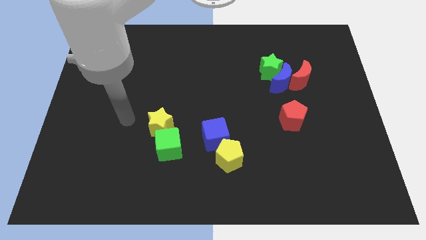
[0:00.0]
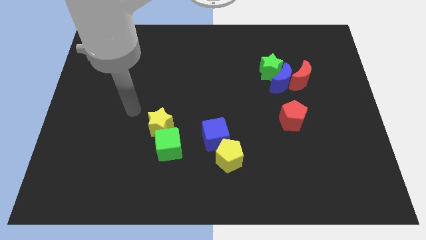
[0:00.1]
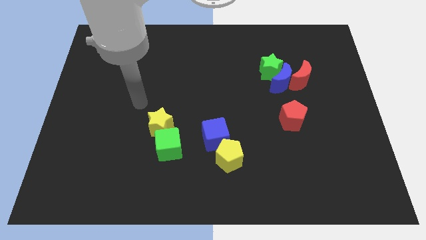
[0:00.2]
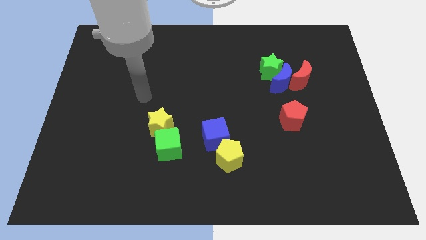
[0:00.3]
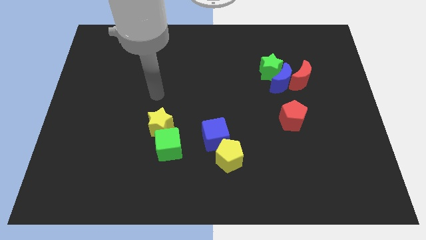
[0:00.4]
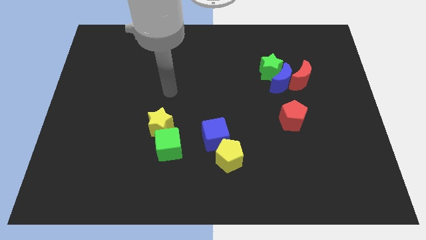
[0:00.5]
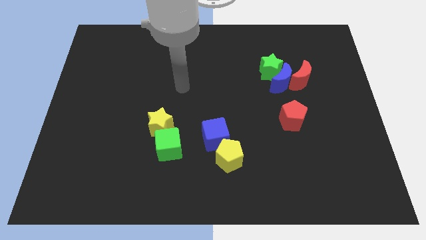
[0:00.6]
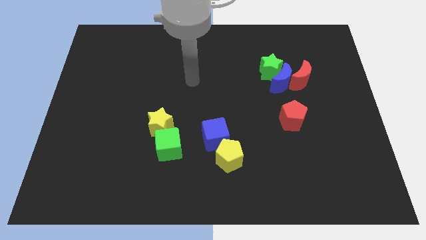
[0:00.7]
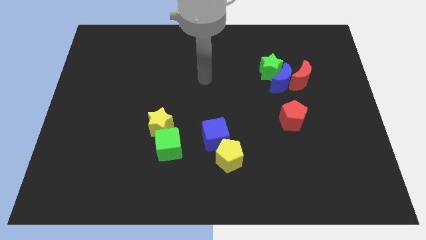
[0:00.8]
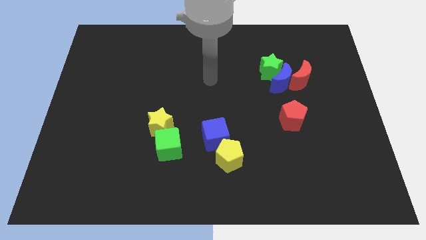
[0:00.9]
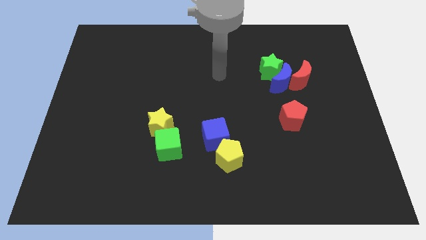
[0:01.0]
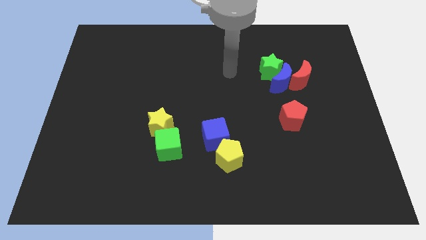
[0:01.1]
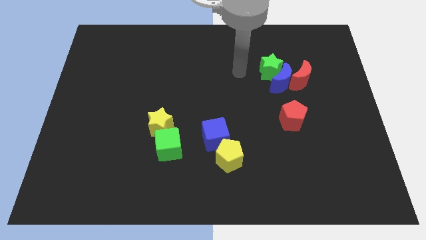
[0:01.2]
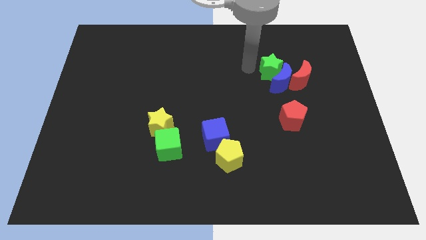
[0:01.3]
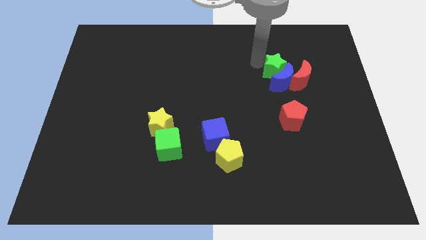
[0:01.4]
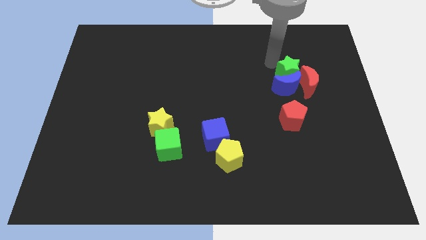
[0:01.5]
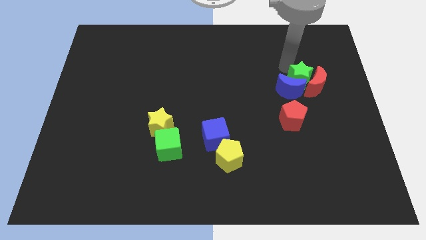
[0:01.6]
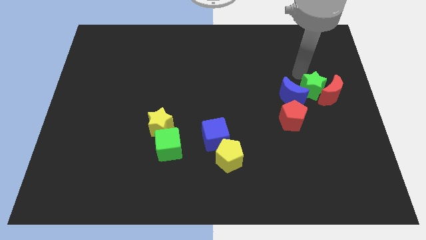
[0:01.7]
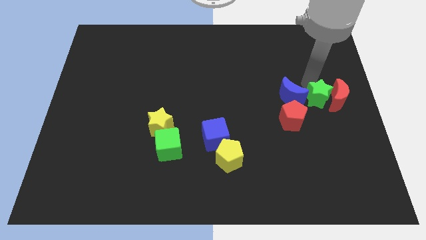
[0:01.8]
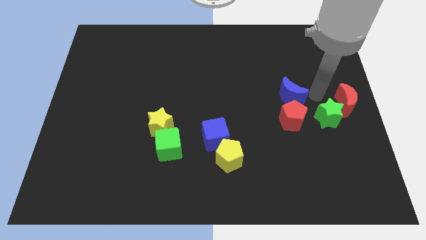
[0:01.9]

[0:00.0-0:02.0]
separate the blue moon from the green star and red moon

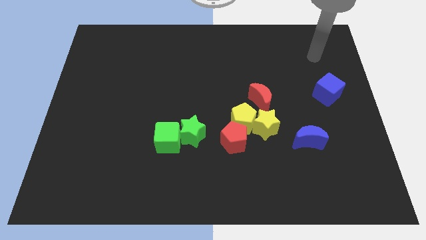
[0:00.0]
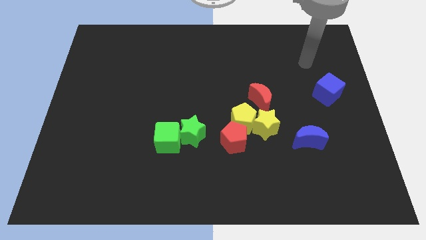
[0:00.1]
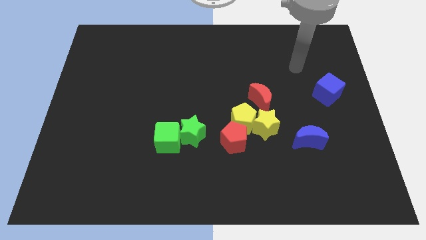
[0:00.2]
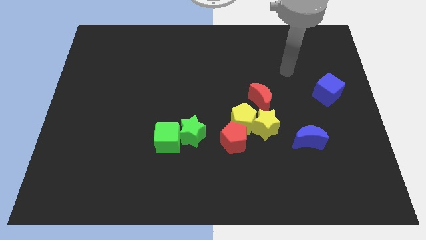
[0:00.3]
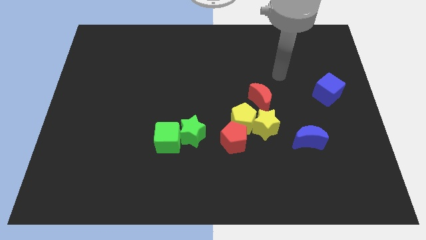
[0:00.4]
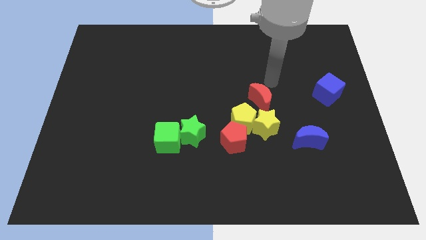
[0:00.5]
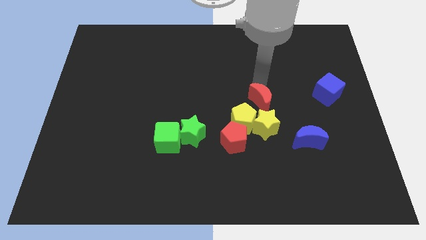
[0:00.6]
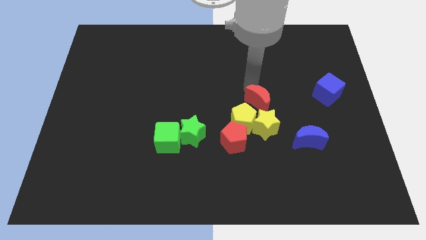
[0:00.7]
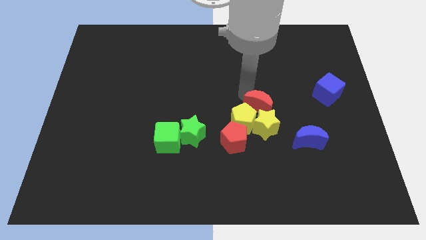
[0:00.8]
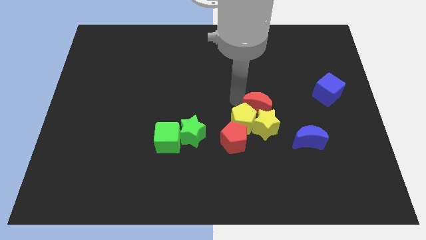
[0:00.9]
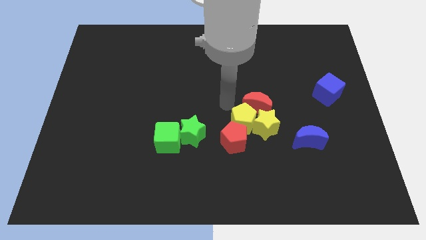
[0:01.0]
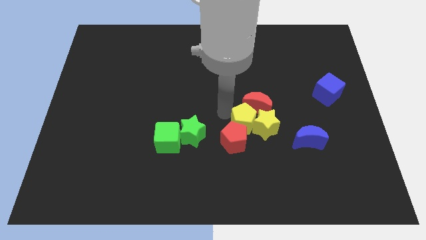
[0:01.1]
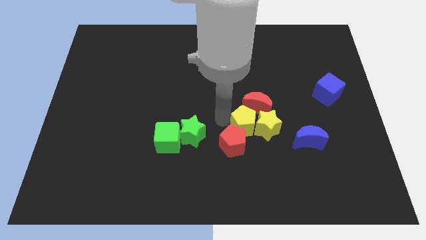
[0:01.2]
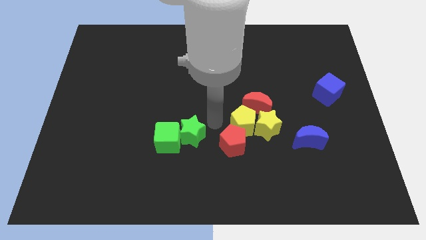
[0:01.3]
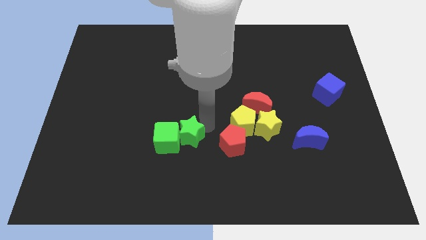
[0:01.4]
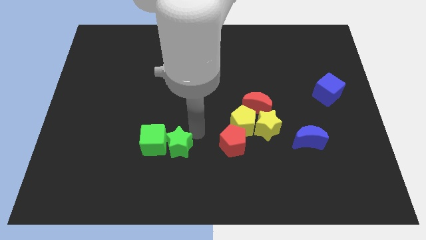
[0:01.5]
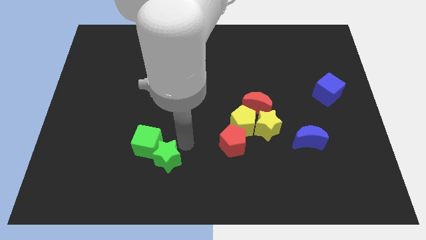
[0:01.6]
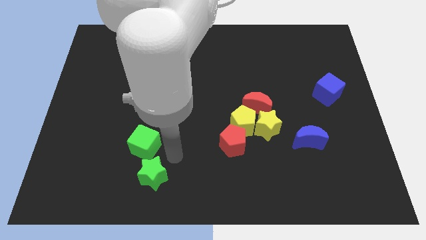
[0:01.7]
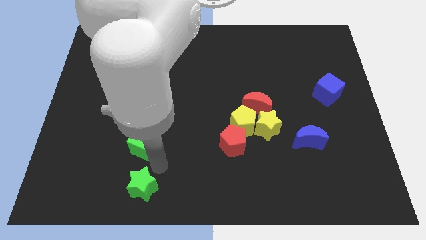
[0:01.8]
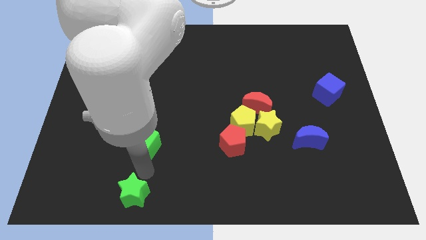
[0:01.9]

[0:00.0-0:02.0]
pull the green cube apart from the green star

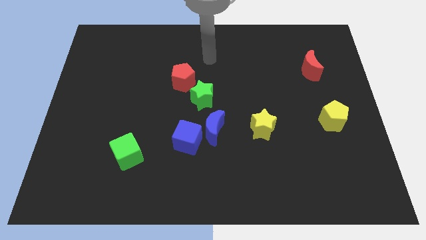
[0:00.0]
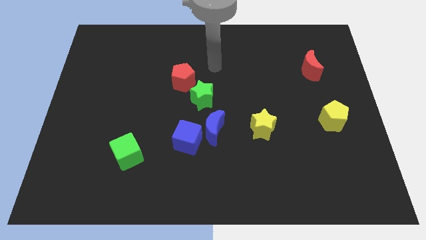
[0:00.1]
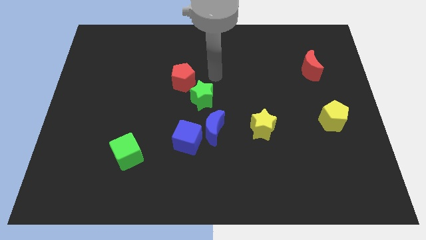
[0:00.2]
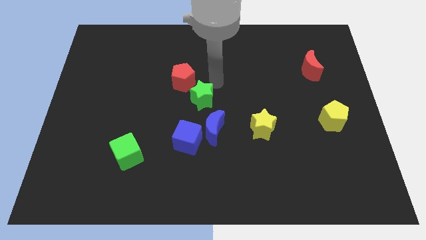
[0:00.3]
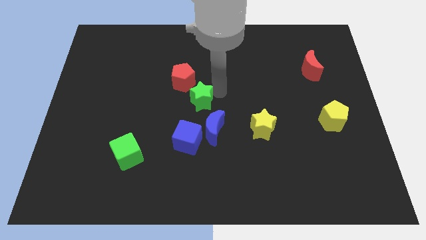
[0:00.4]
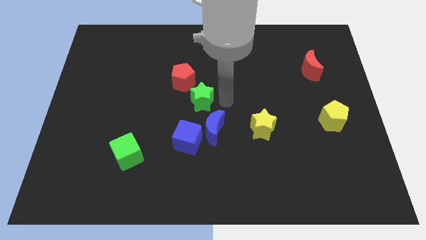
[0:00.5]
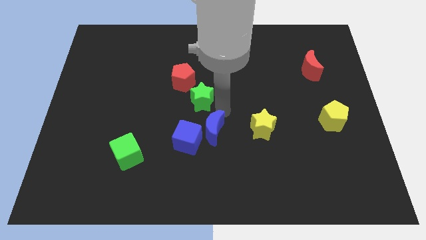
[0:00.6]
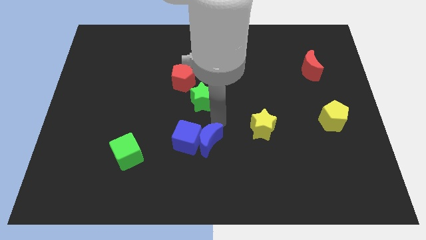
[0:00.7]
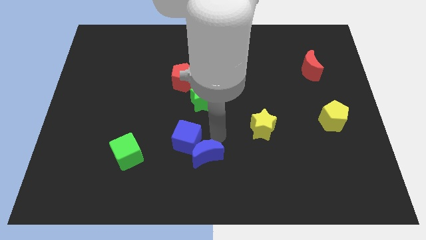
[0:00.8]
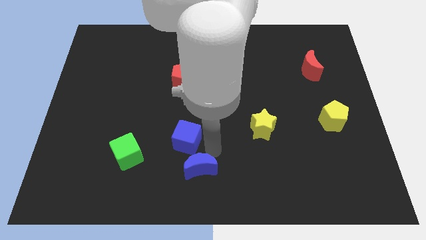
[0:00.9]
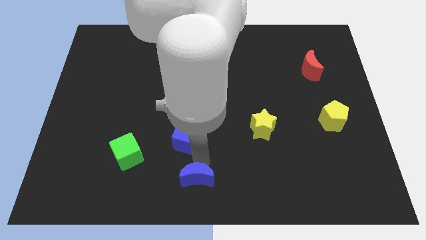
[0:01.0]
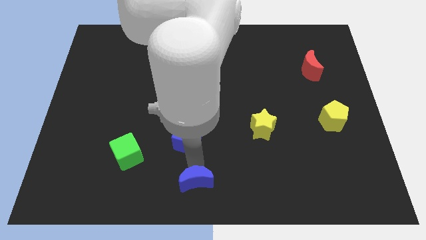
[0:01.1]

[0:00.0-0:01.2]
separate the blue cube from the blue moon

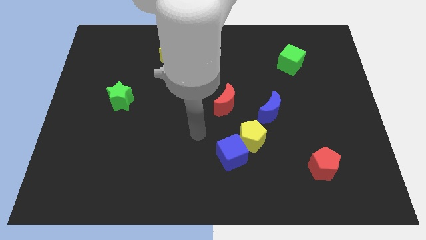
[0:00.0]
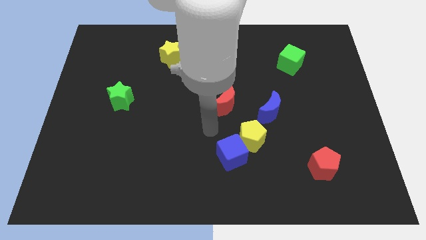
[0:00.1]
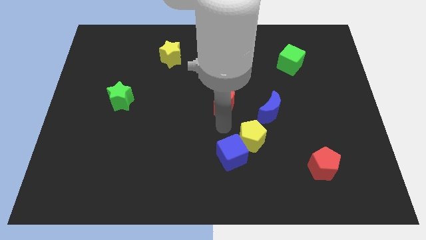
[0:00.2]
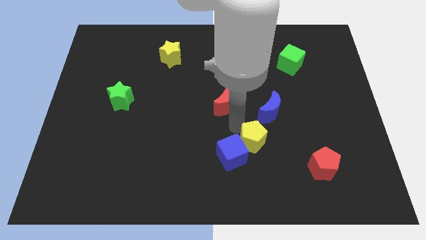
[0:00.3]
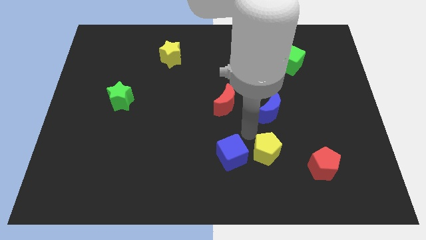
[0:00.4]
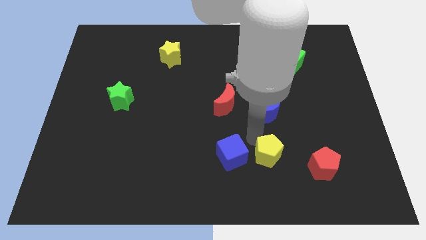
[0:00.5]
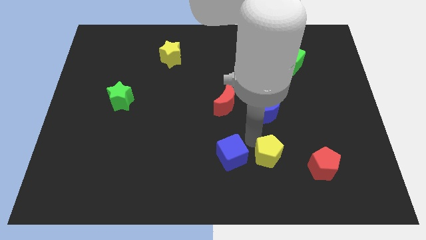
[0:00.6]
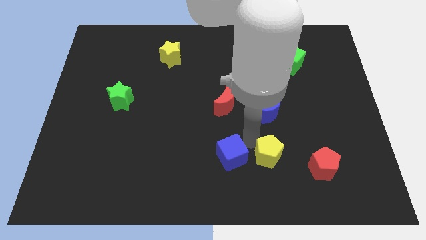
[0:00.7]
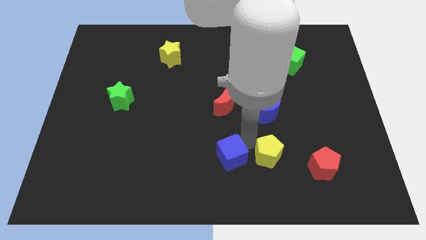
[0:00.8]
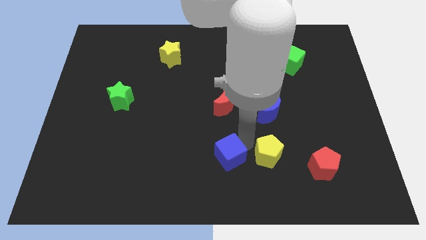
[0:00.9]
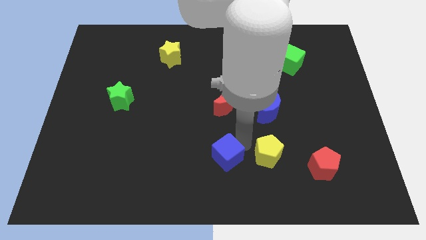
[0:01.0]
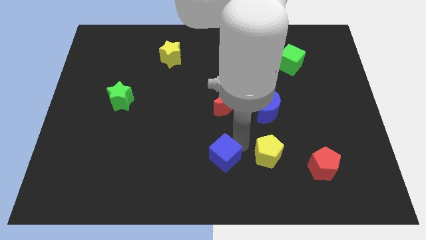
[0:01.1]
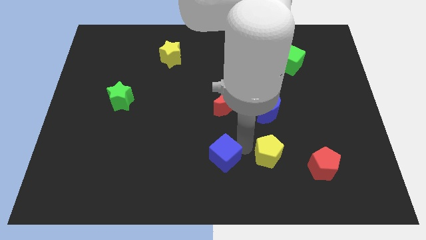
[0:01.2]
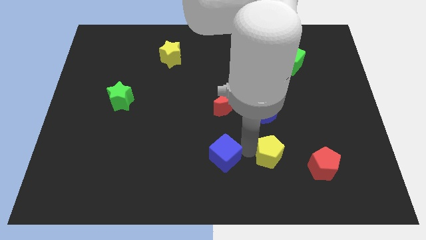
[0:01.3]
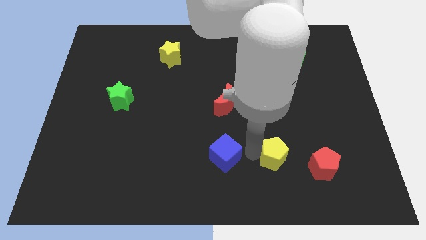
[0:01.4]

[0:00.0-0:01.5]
pull the blue cube apart from the yellow pentagon

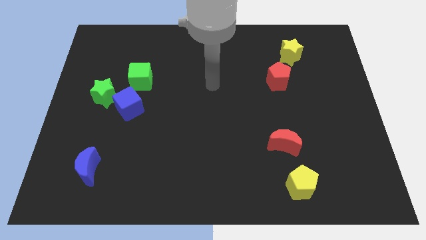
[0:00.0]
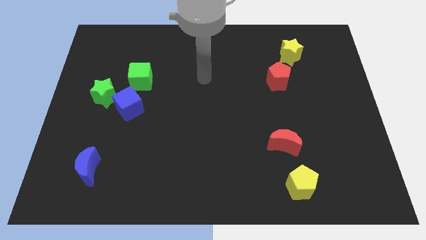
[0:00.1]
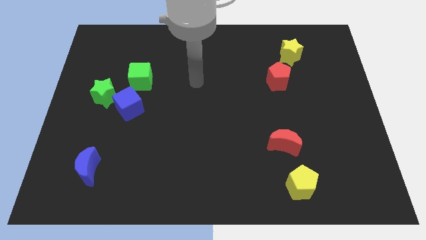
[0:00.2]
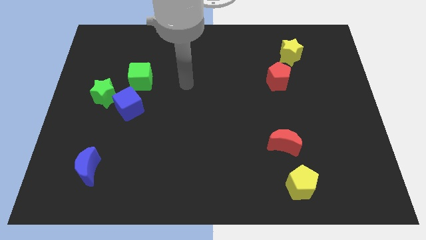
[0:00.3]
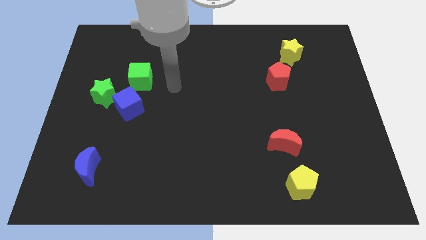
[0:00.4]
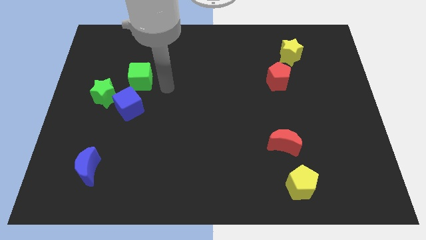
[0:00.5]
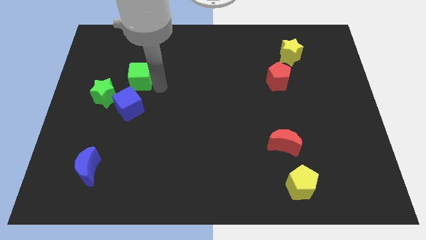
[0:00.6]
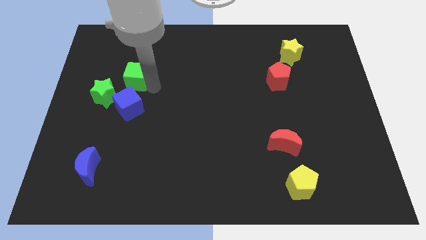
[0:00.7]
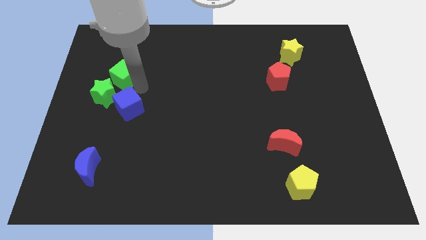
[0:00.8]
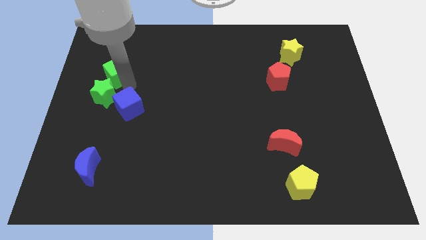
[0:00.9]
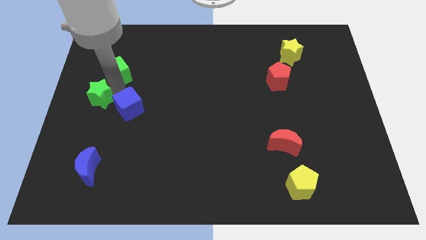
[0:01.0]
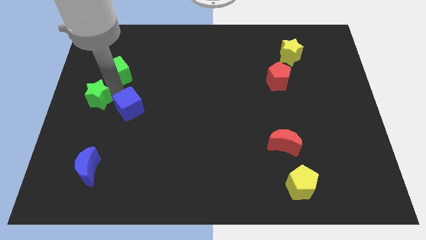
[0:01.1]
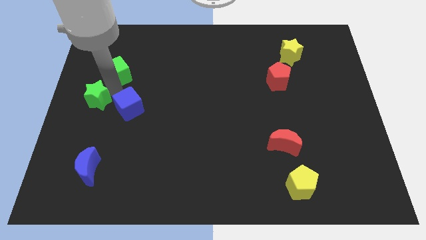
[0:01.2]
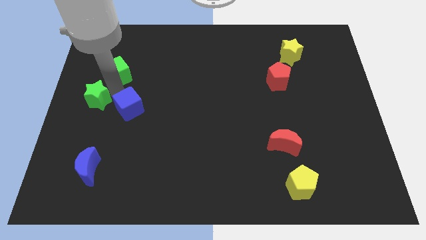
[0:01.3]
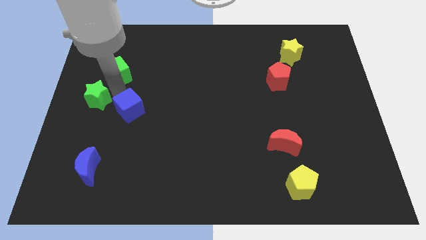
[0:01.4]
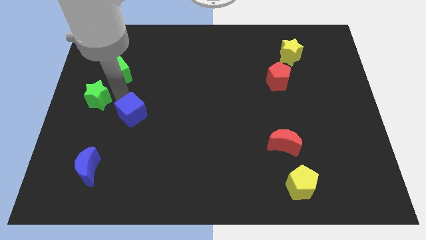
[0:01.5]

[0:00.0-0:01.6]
separate the blue cube from the green star and green cube

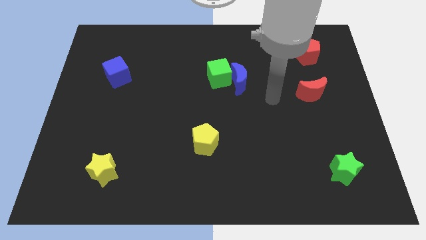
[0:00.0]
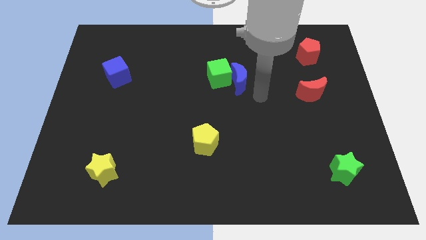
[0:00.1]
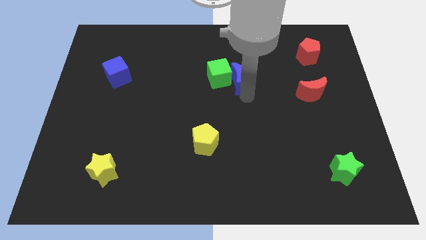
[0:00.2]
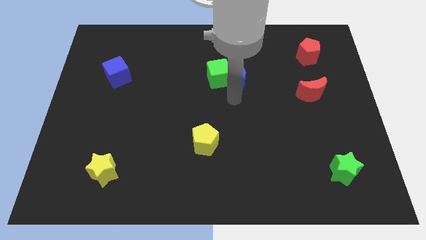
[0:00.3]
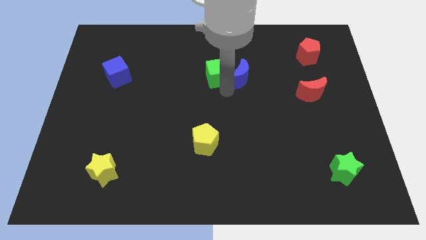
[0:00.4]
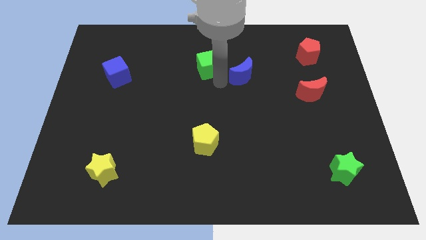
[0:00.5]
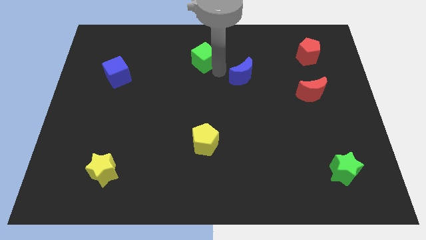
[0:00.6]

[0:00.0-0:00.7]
separate the blue moon from the green cube

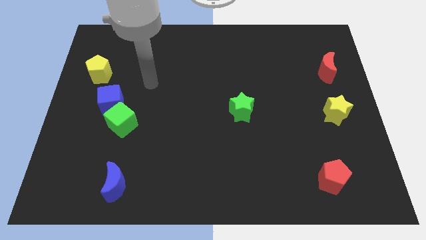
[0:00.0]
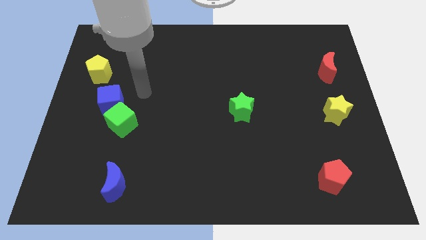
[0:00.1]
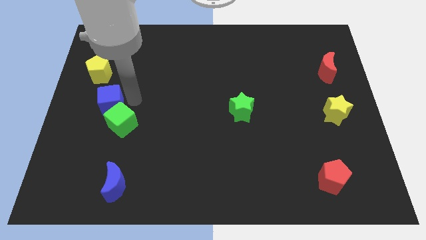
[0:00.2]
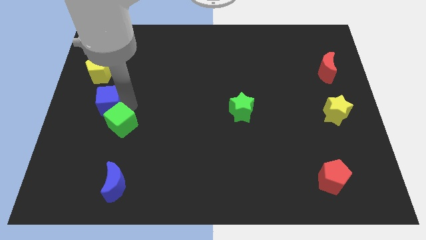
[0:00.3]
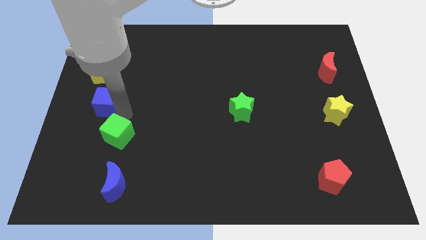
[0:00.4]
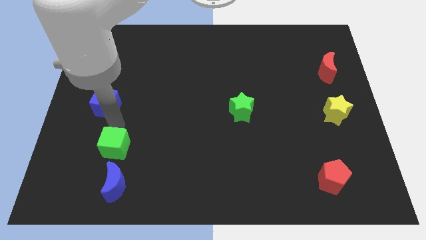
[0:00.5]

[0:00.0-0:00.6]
separate the blue cube from the green cube
